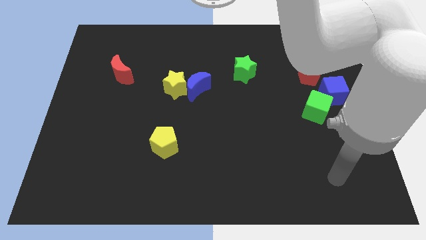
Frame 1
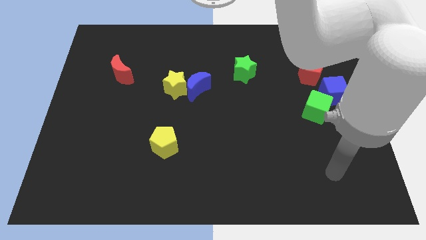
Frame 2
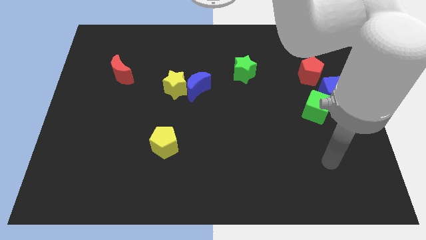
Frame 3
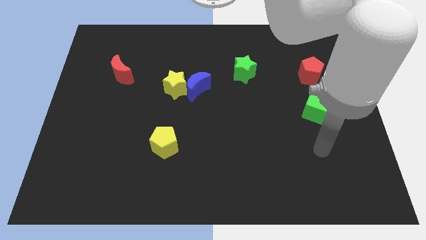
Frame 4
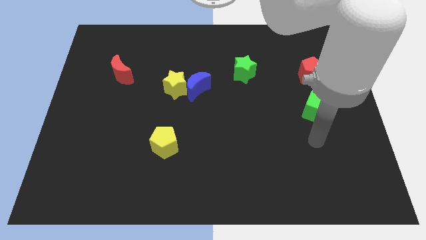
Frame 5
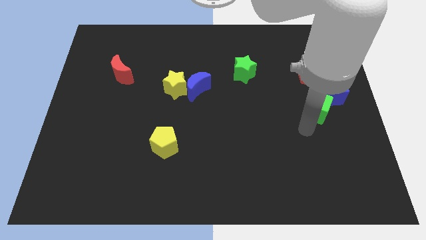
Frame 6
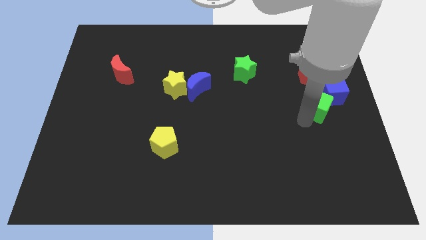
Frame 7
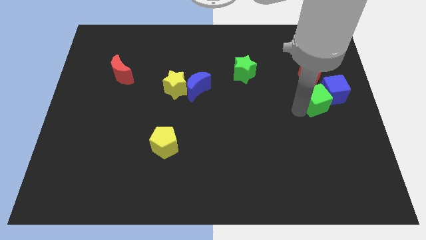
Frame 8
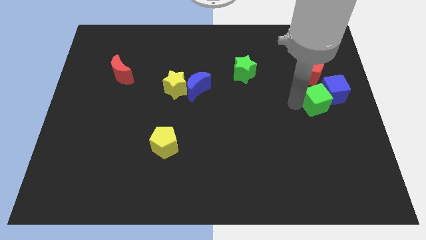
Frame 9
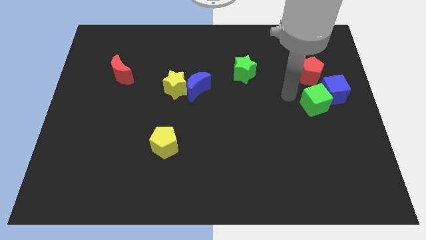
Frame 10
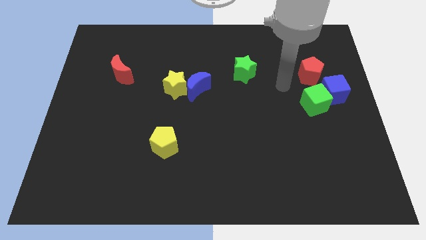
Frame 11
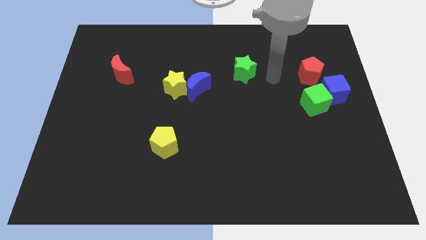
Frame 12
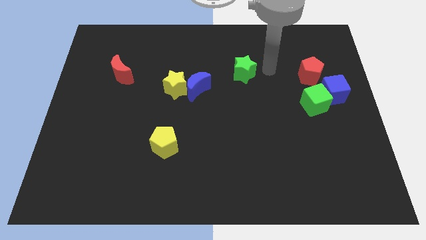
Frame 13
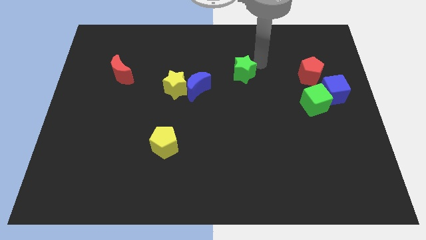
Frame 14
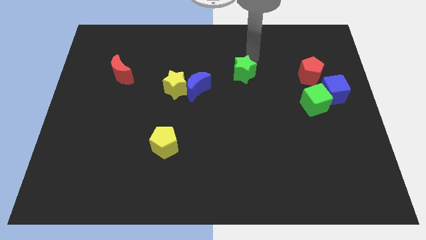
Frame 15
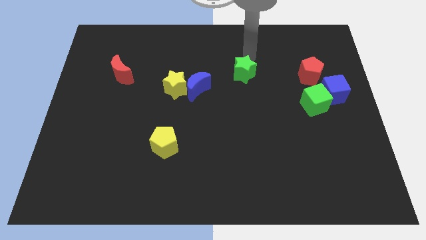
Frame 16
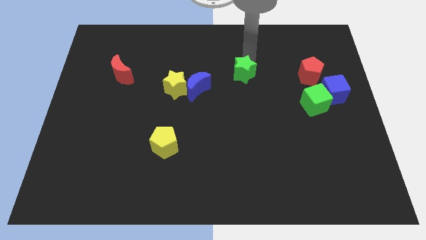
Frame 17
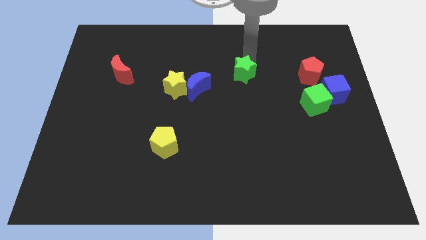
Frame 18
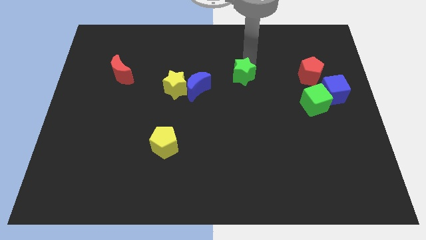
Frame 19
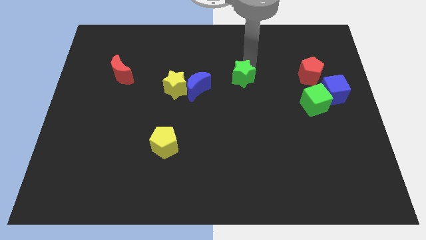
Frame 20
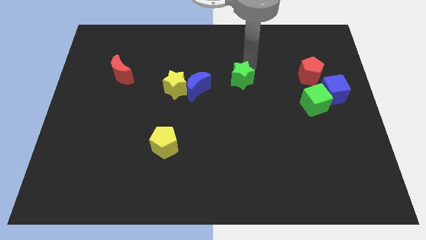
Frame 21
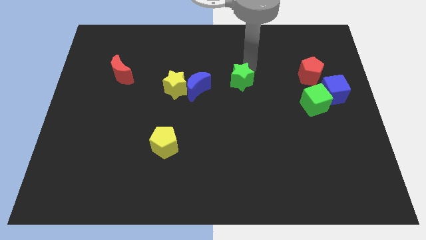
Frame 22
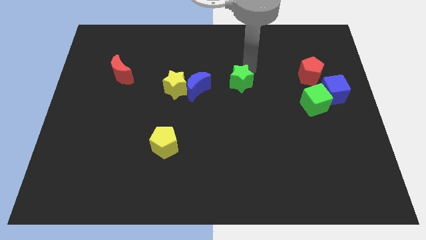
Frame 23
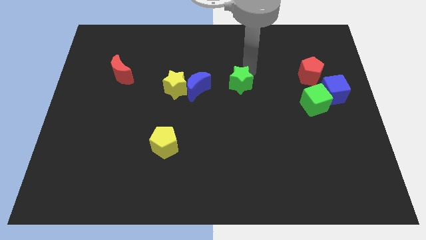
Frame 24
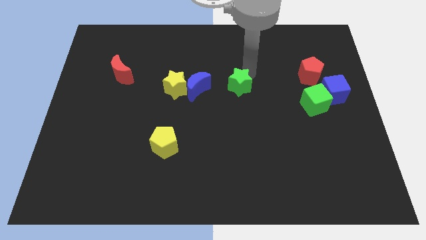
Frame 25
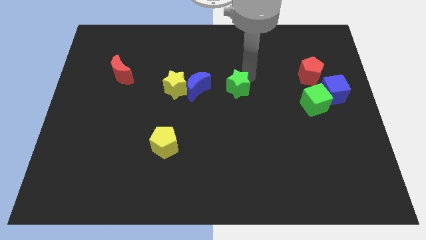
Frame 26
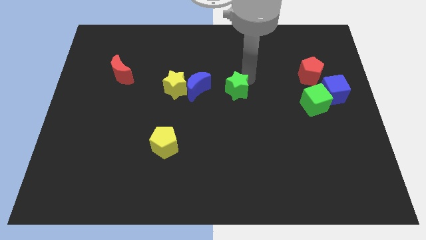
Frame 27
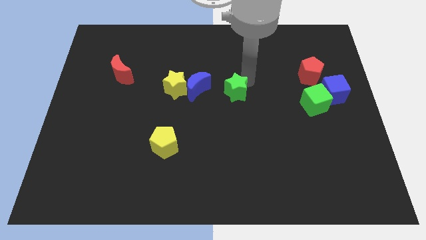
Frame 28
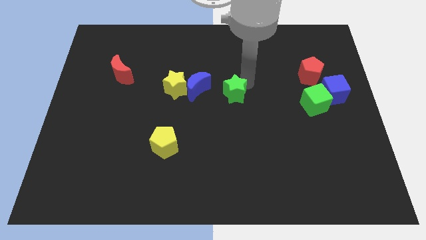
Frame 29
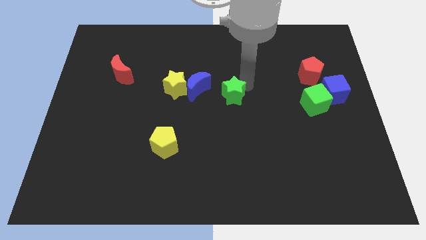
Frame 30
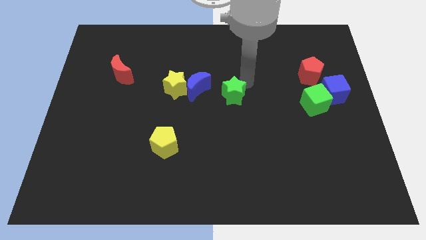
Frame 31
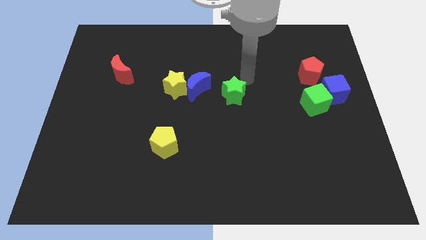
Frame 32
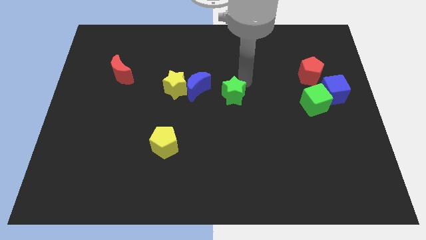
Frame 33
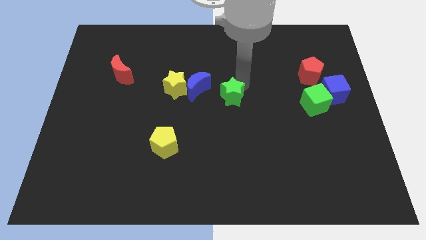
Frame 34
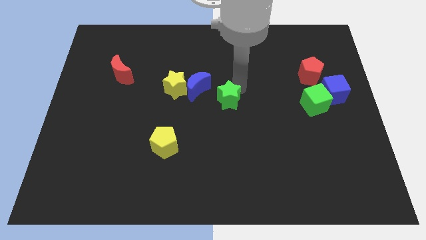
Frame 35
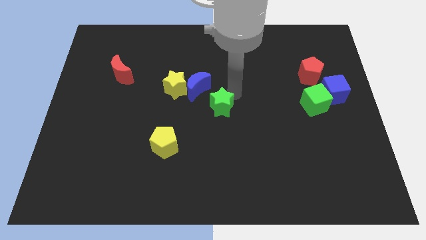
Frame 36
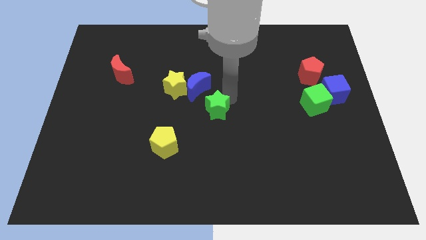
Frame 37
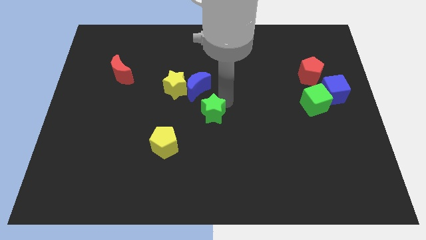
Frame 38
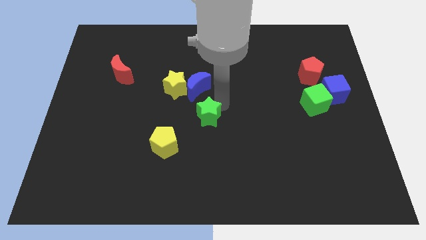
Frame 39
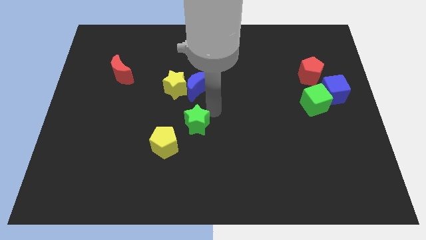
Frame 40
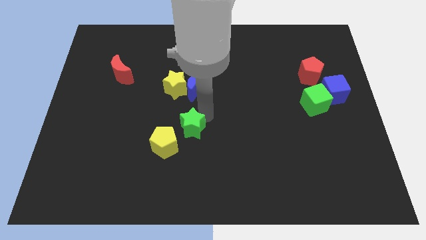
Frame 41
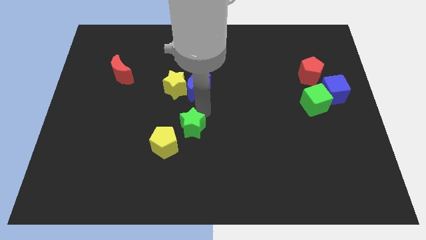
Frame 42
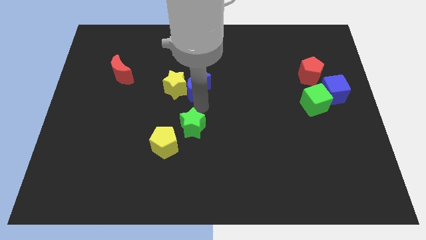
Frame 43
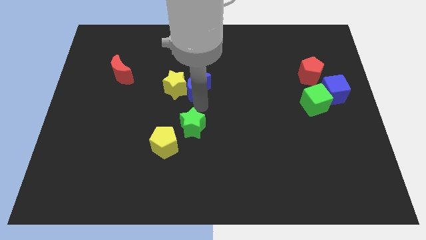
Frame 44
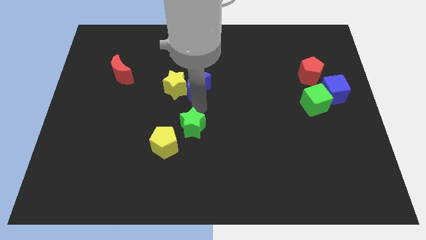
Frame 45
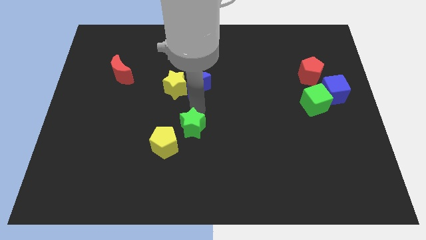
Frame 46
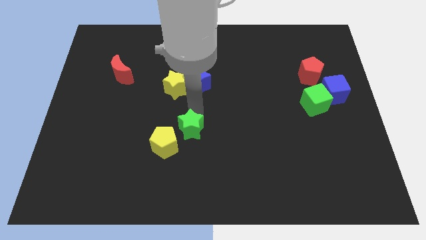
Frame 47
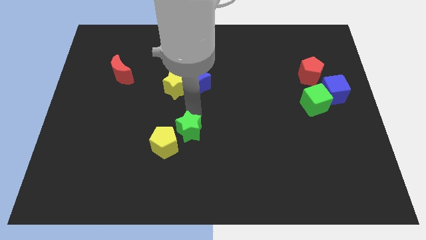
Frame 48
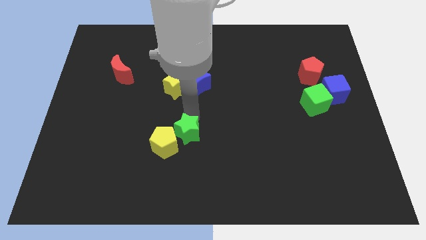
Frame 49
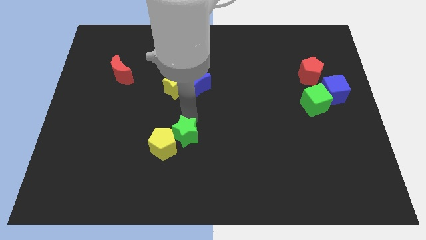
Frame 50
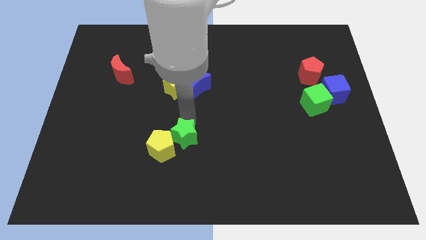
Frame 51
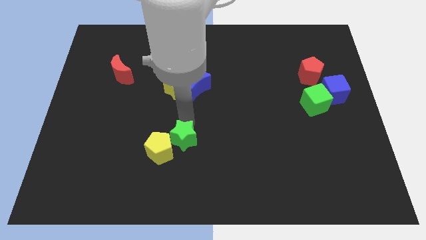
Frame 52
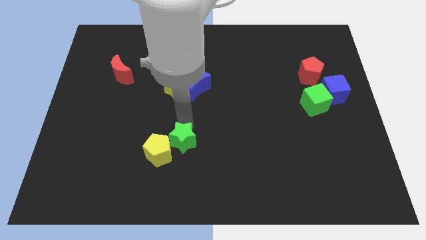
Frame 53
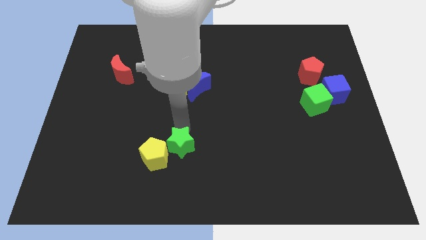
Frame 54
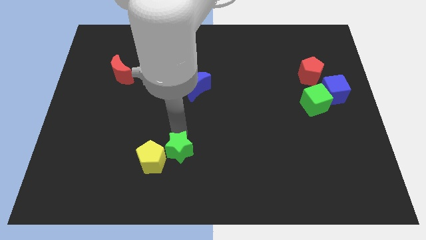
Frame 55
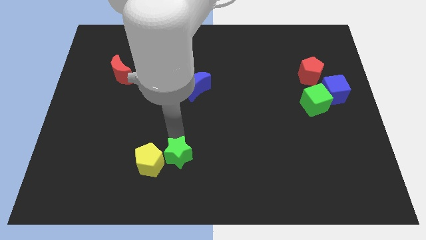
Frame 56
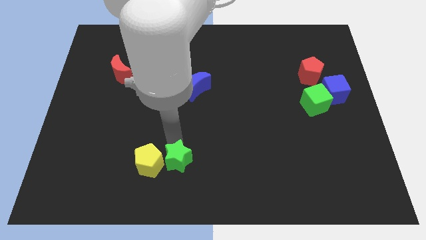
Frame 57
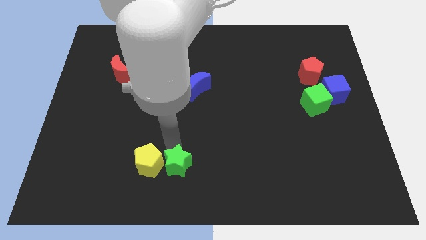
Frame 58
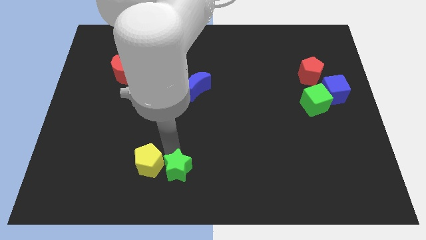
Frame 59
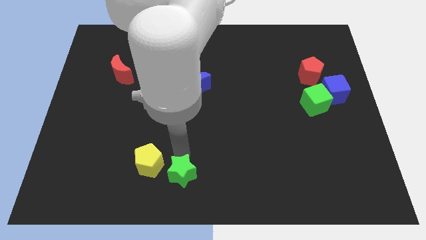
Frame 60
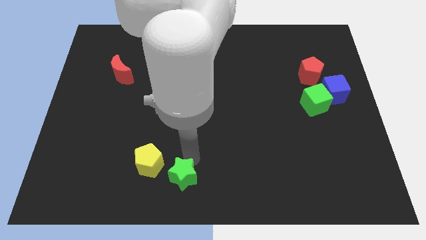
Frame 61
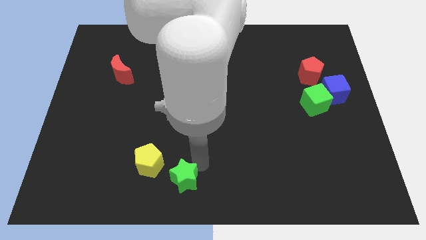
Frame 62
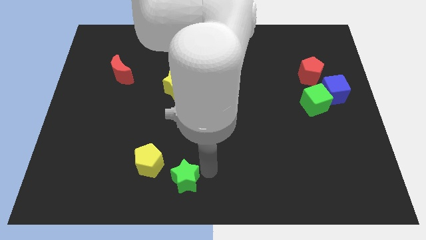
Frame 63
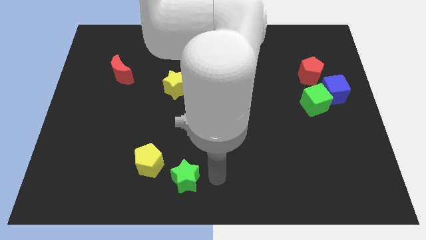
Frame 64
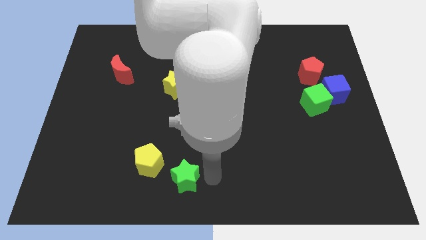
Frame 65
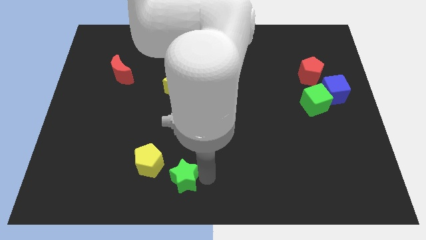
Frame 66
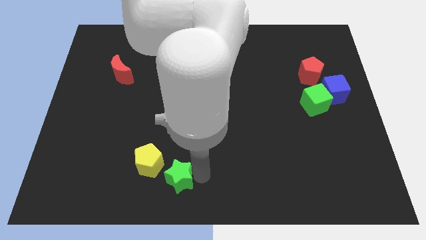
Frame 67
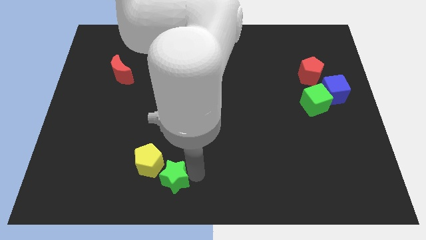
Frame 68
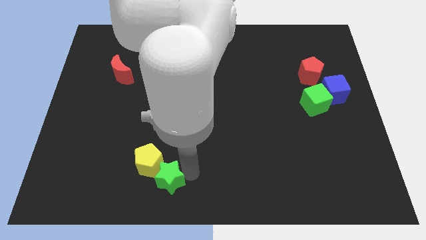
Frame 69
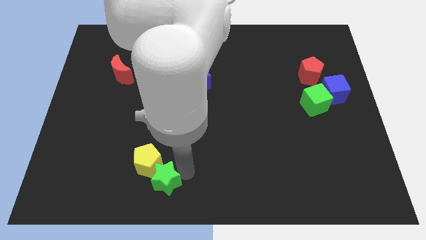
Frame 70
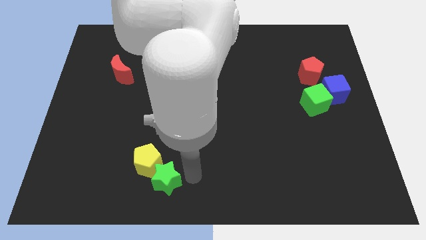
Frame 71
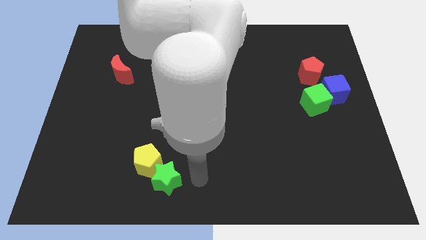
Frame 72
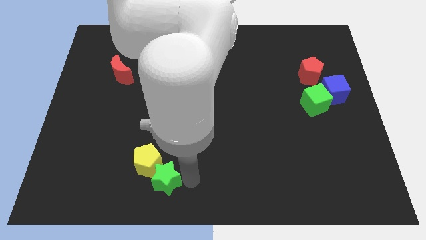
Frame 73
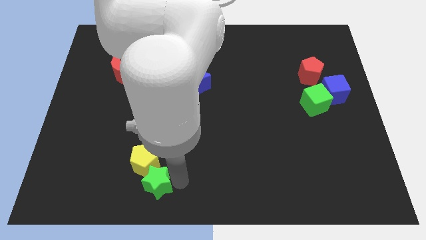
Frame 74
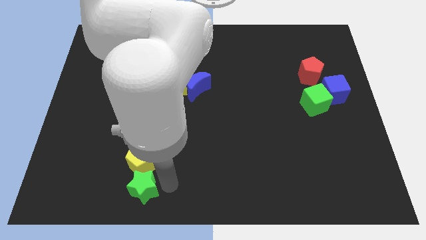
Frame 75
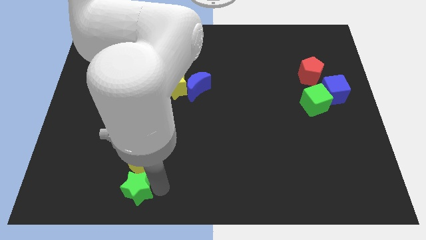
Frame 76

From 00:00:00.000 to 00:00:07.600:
push the green star to the bottom left of the yellow pentagon
